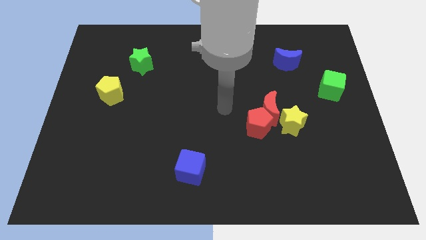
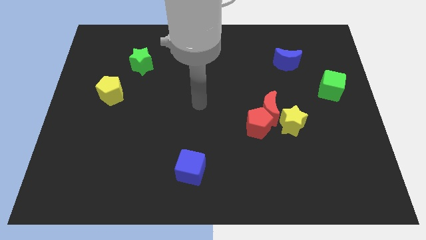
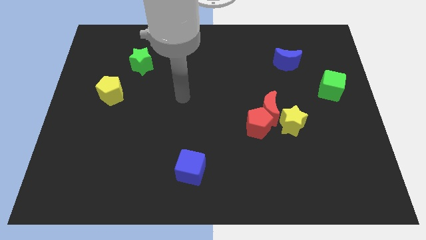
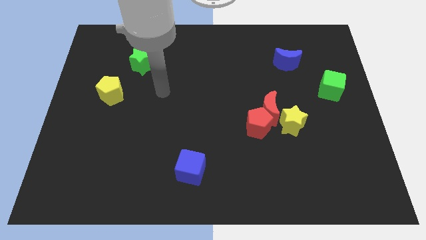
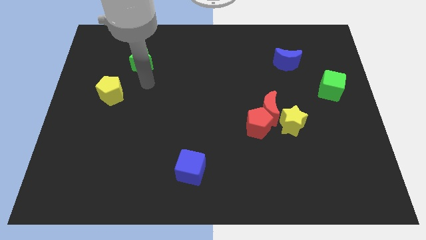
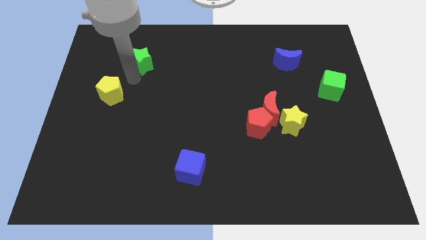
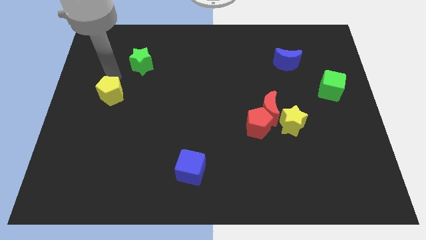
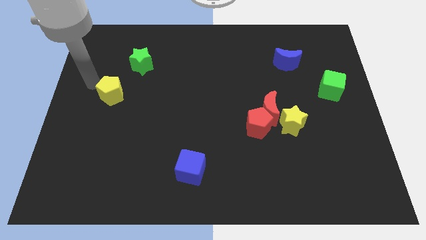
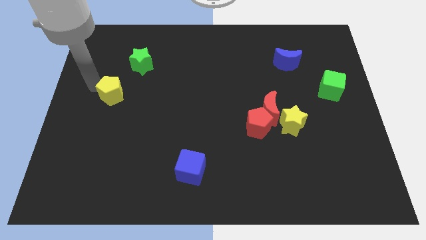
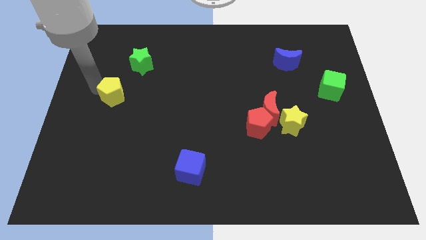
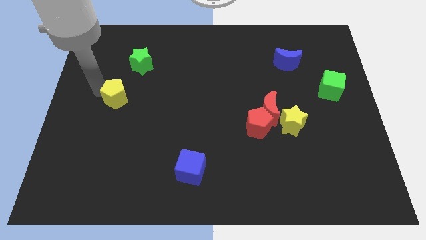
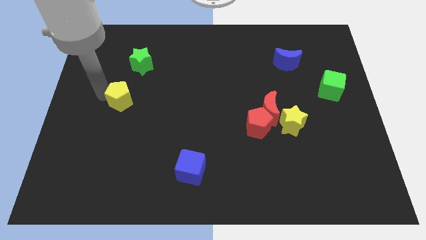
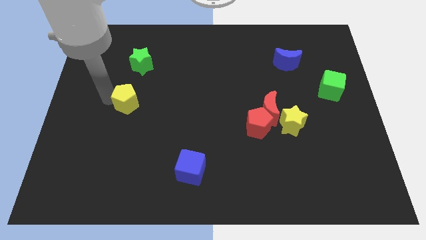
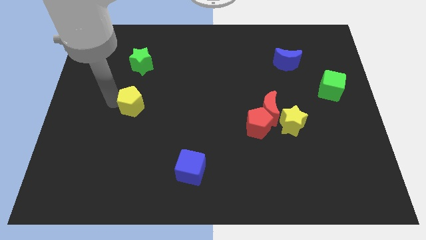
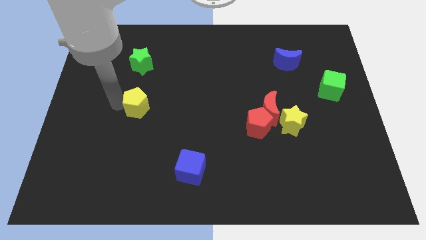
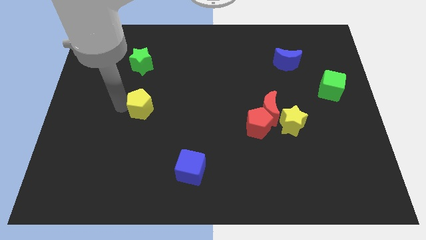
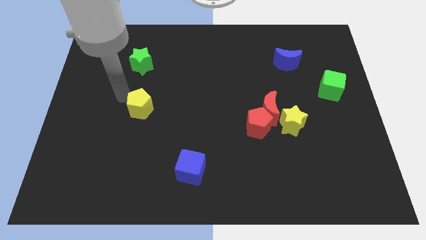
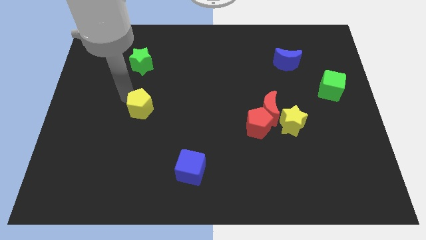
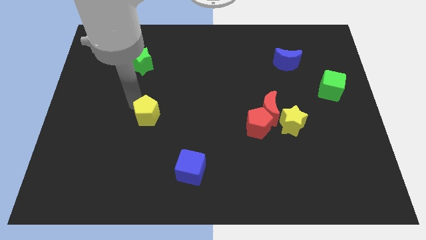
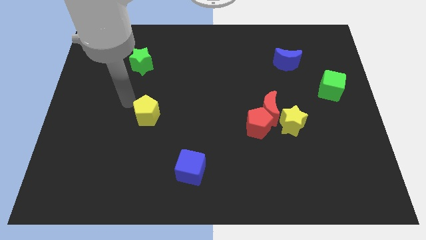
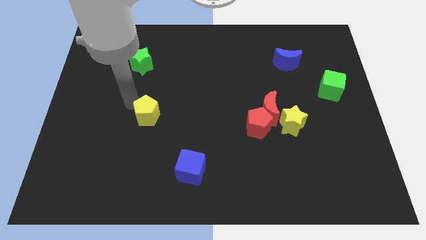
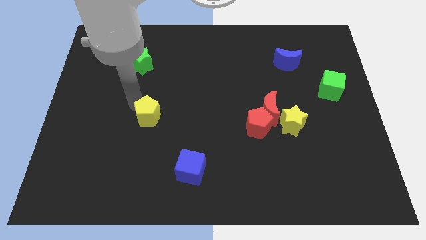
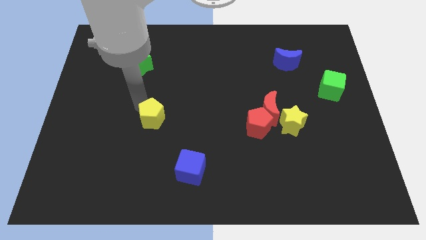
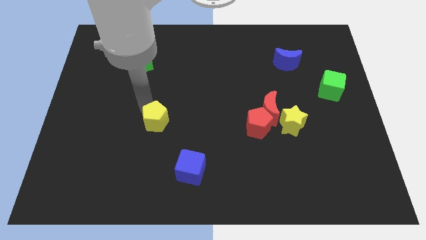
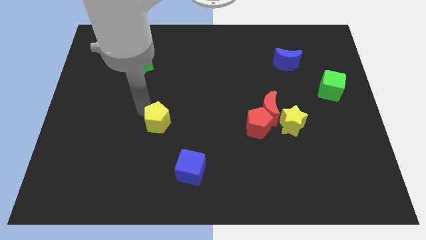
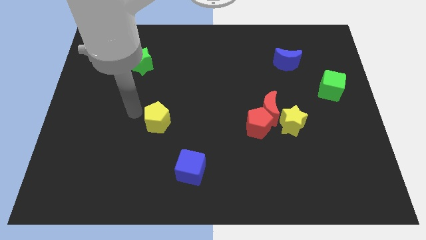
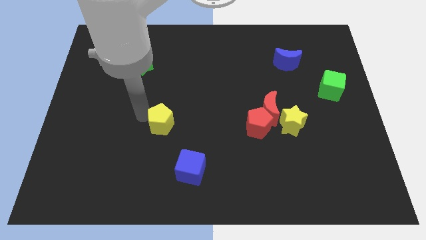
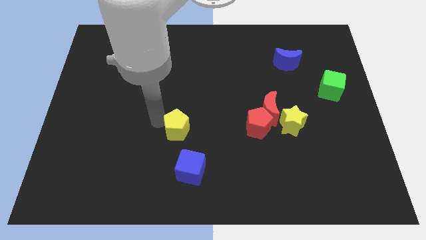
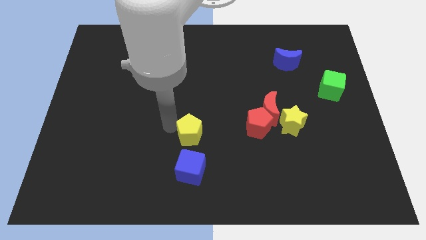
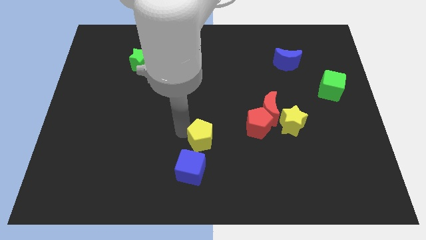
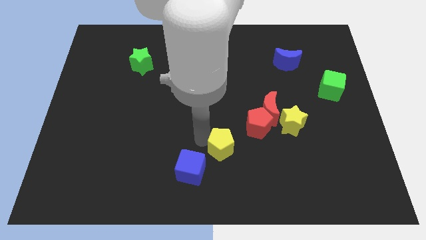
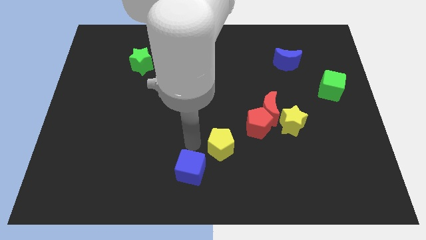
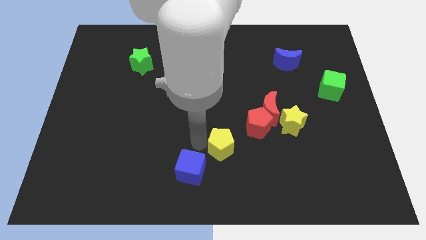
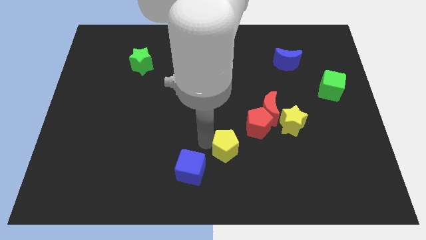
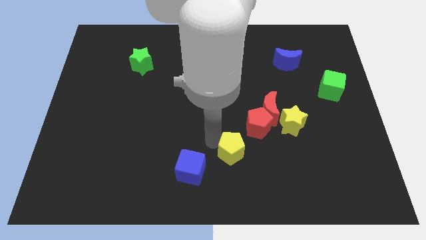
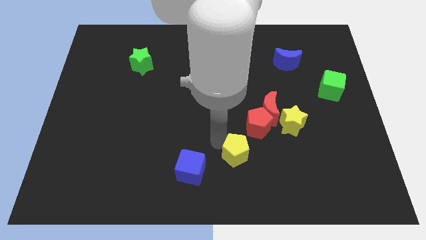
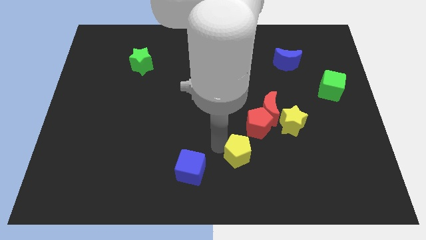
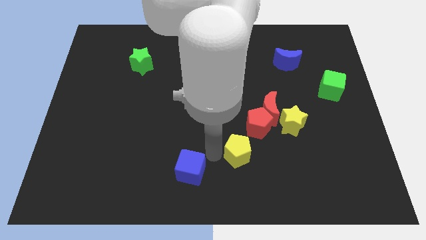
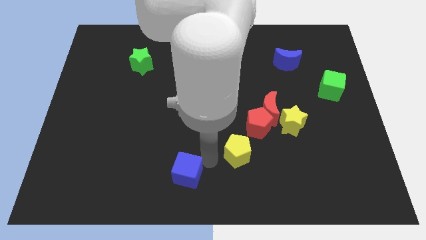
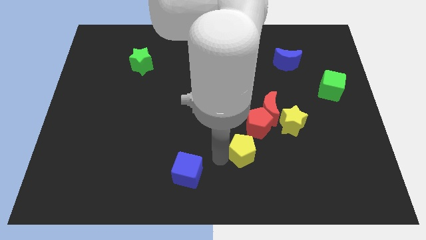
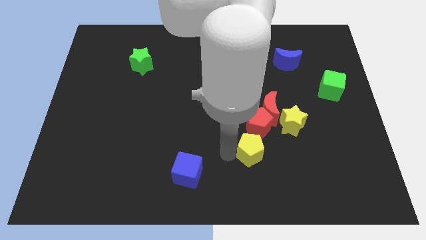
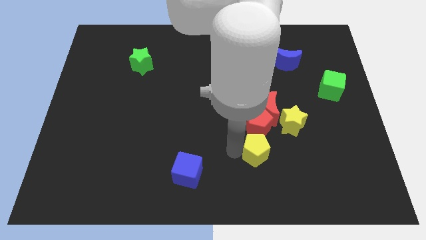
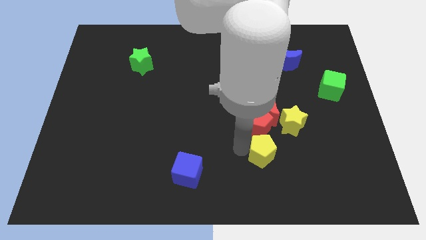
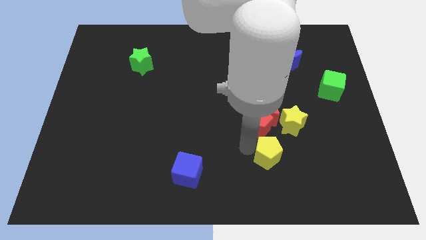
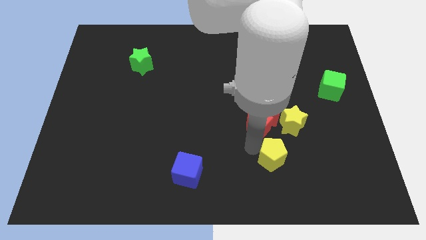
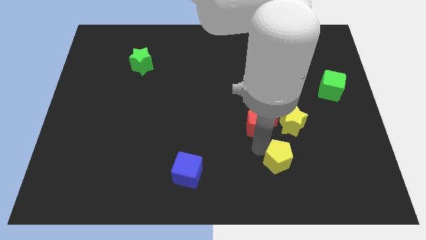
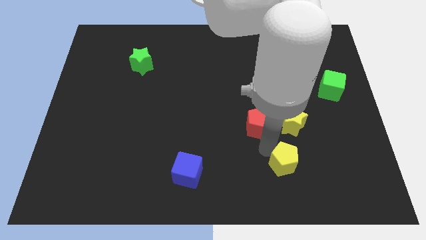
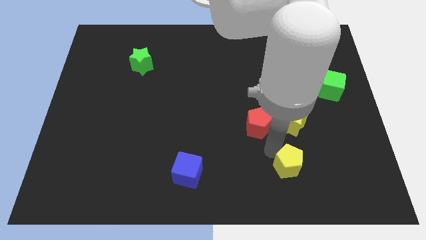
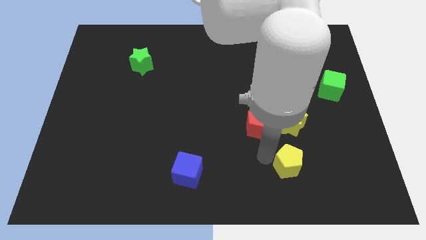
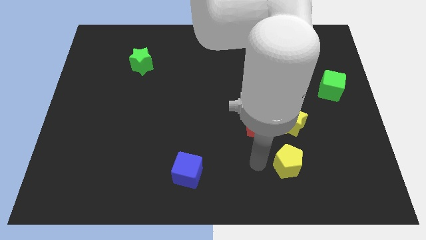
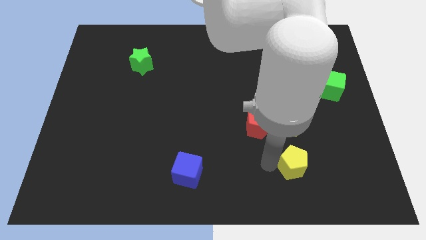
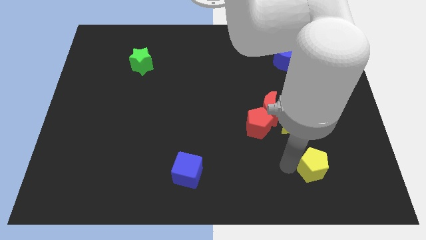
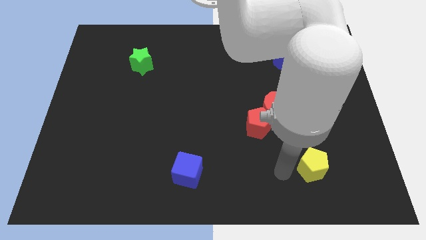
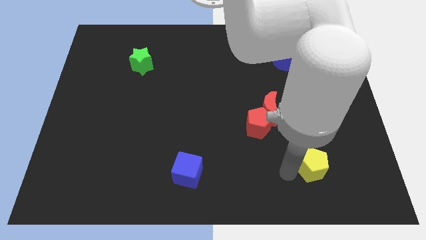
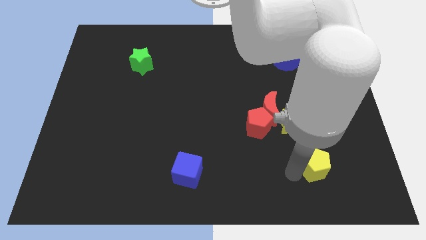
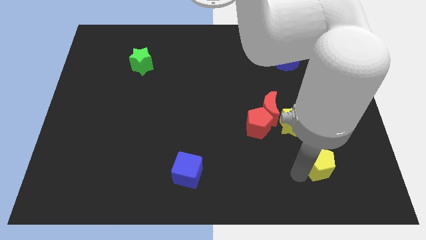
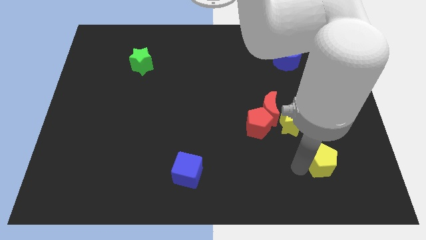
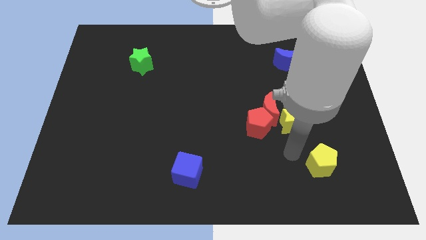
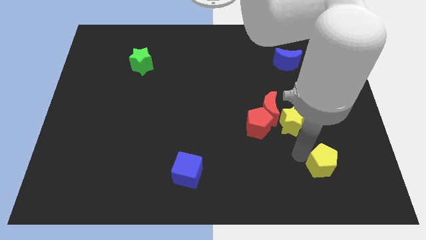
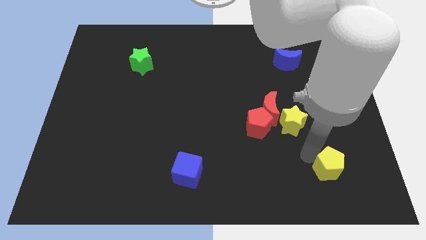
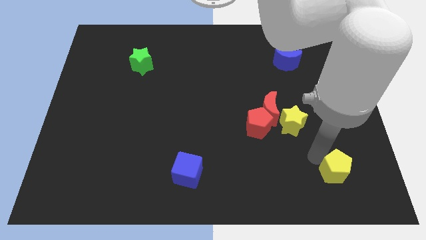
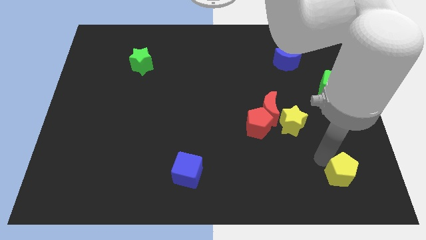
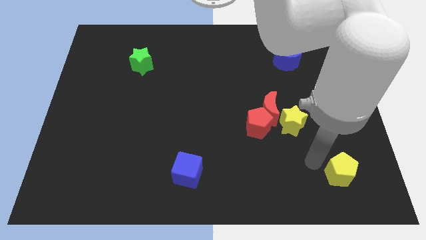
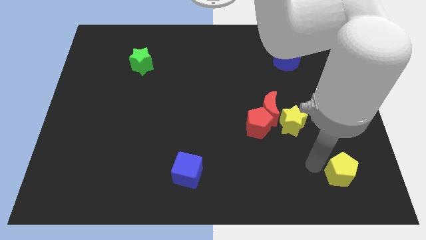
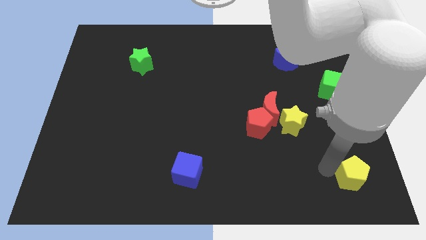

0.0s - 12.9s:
move the yellow pentagon to the bottom right corner
